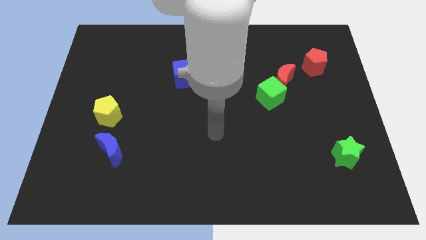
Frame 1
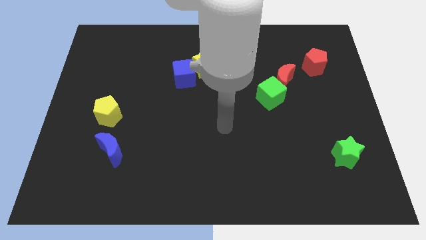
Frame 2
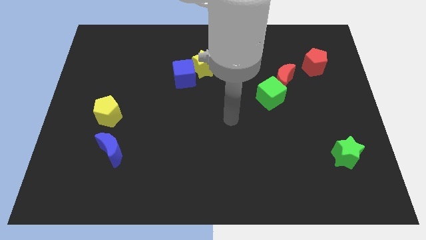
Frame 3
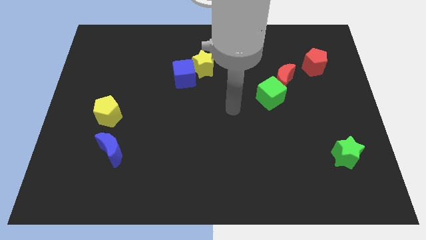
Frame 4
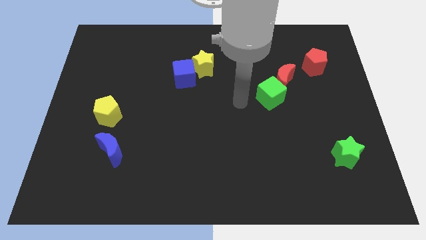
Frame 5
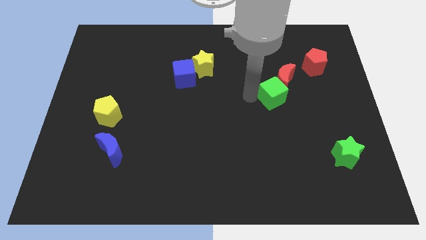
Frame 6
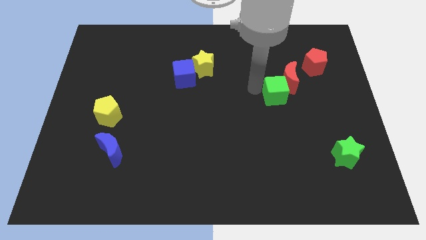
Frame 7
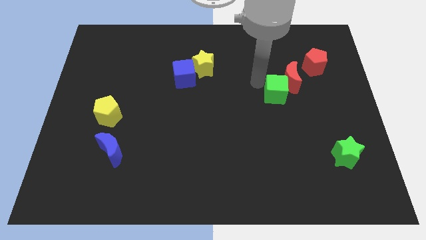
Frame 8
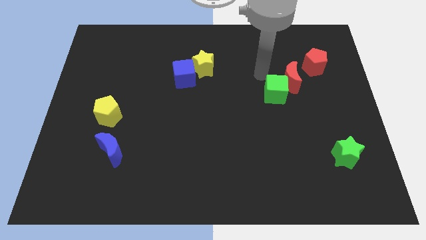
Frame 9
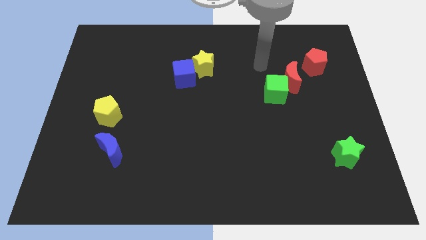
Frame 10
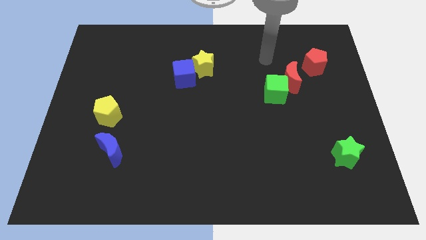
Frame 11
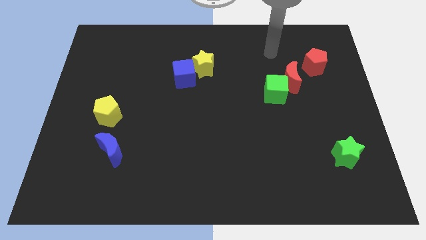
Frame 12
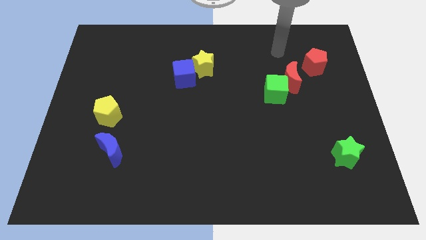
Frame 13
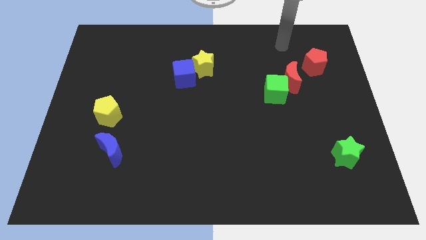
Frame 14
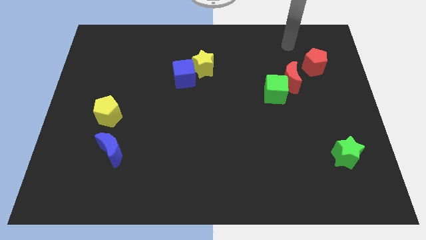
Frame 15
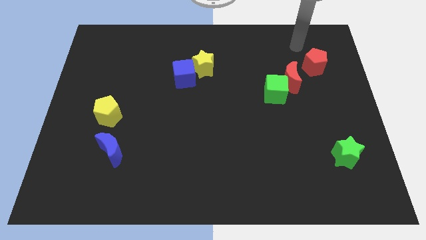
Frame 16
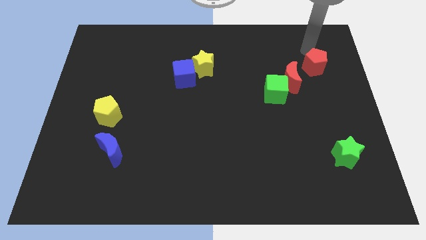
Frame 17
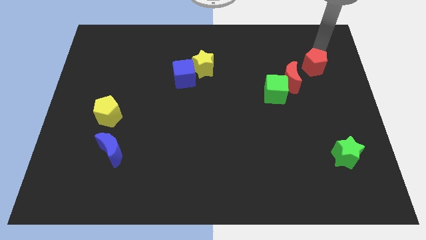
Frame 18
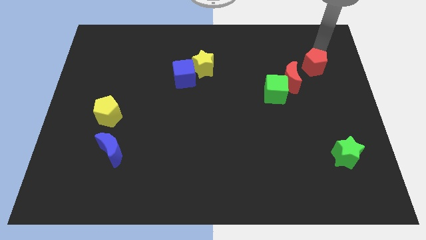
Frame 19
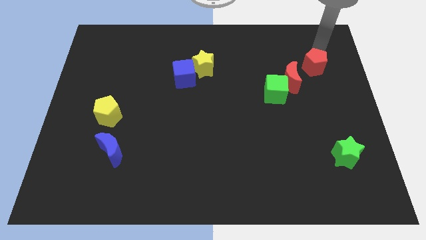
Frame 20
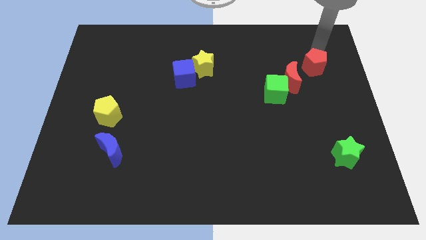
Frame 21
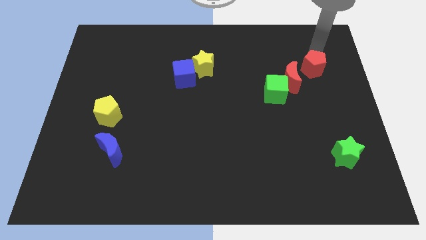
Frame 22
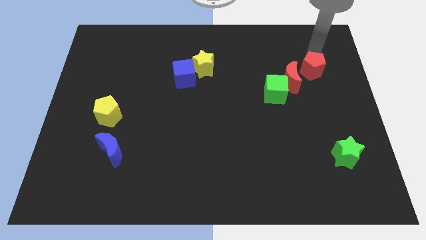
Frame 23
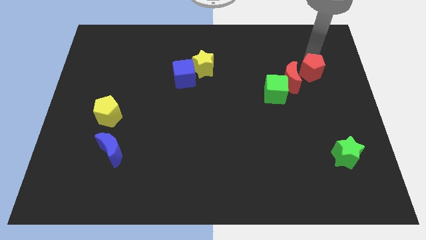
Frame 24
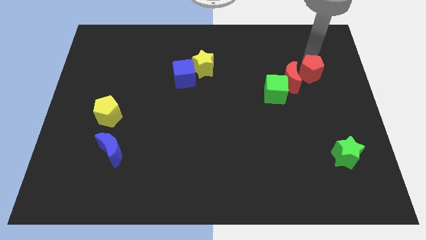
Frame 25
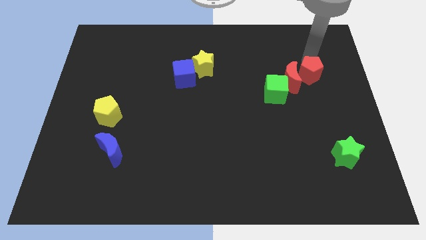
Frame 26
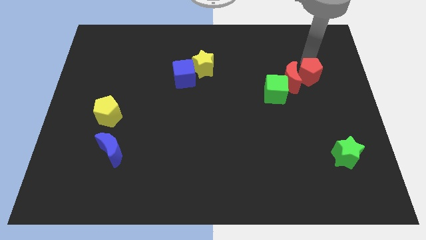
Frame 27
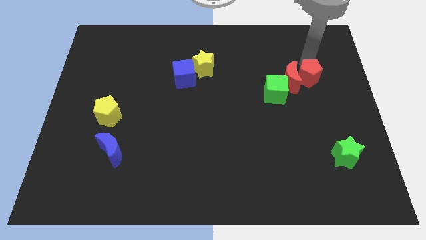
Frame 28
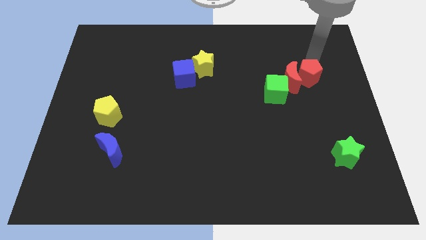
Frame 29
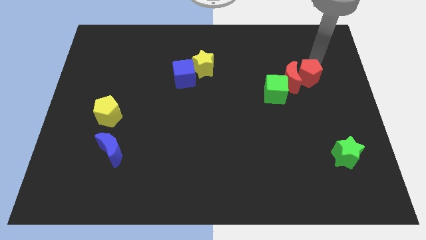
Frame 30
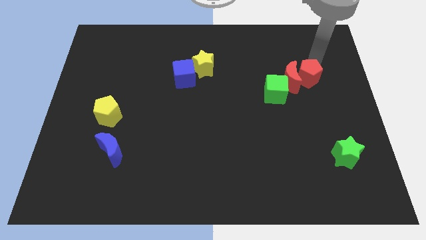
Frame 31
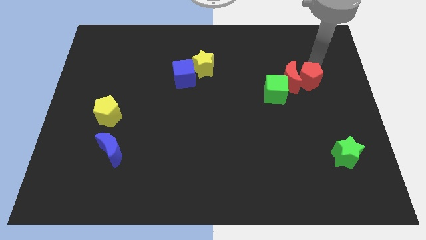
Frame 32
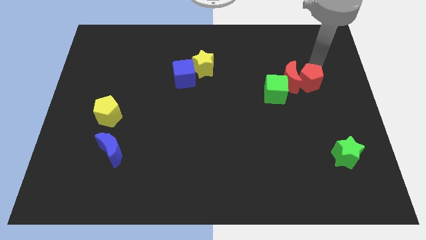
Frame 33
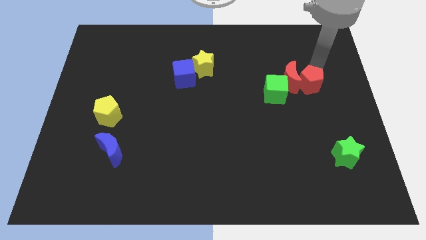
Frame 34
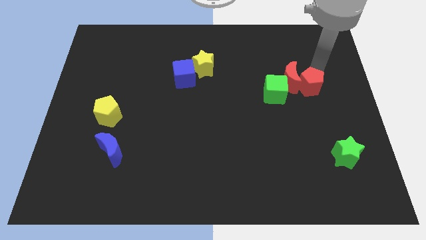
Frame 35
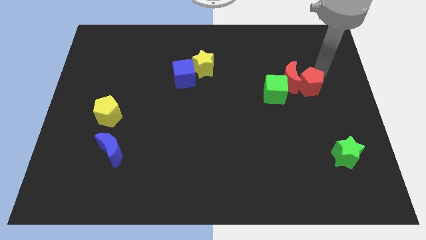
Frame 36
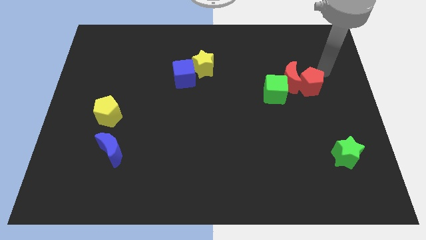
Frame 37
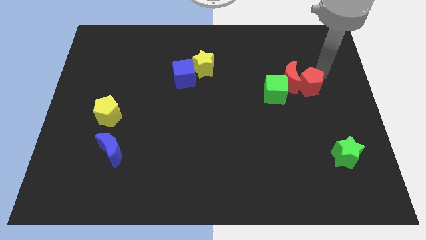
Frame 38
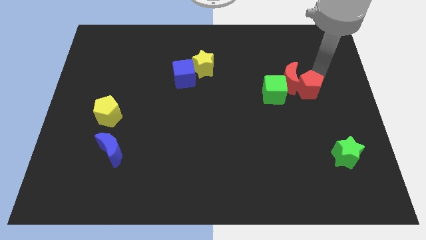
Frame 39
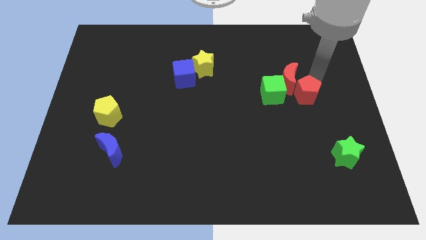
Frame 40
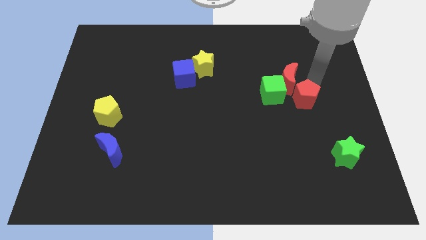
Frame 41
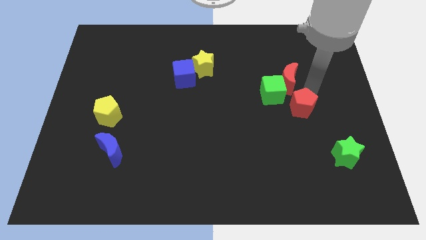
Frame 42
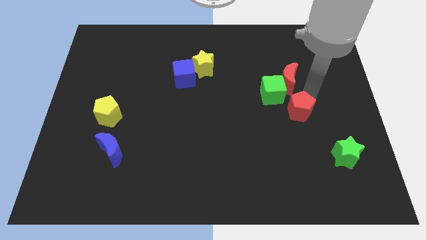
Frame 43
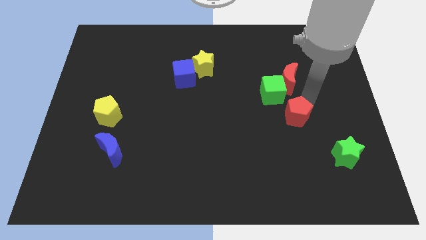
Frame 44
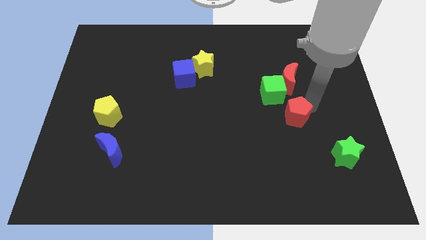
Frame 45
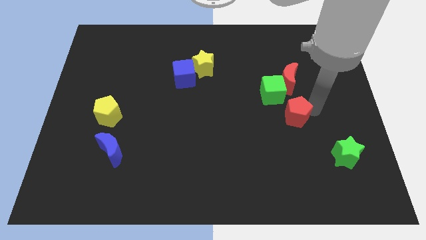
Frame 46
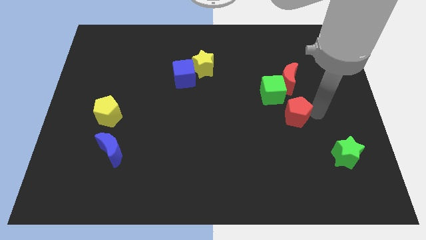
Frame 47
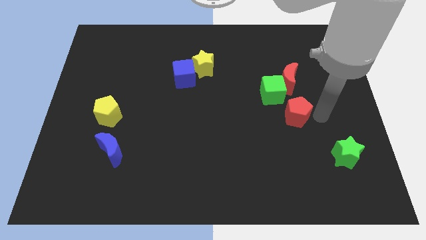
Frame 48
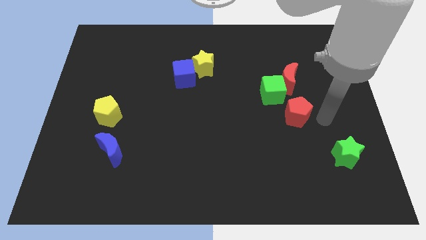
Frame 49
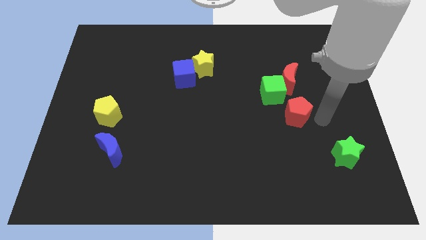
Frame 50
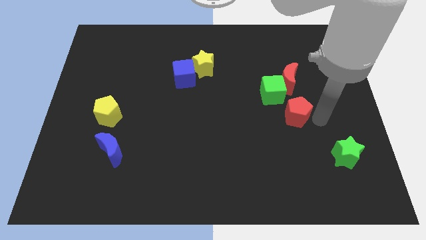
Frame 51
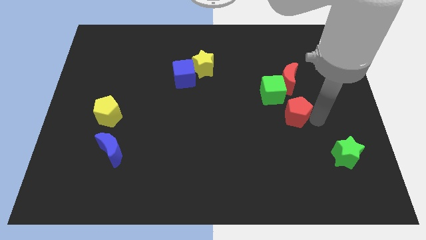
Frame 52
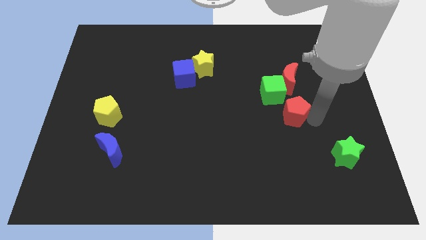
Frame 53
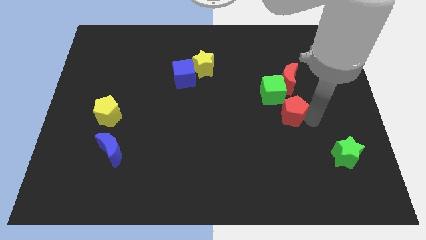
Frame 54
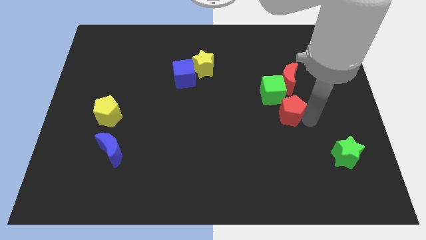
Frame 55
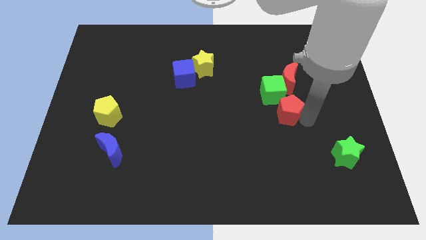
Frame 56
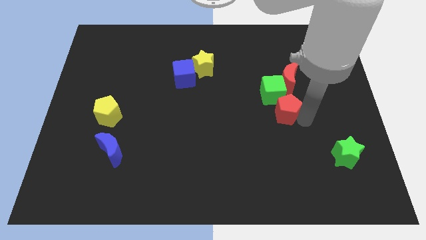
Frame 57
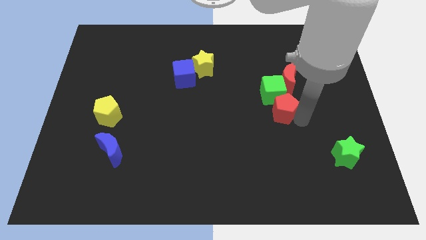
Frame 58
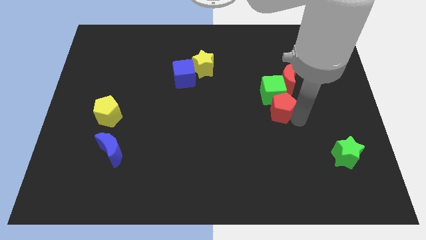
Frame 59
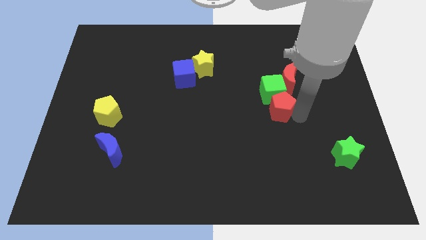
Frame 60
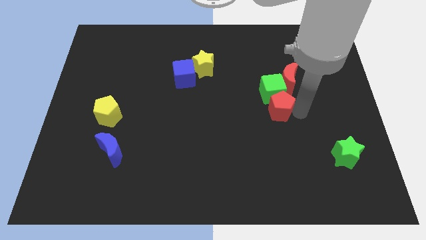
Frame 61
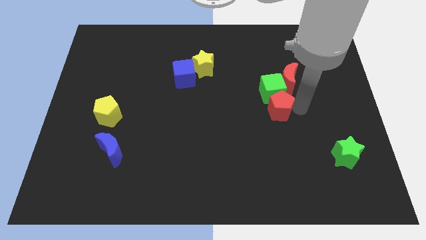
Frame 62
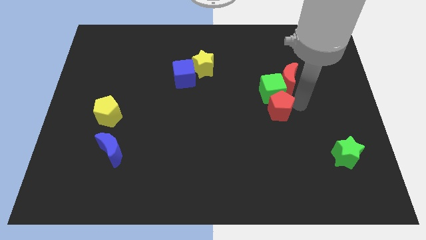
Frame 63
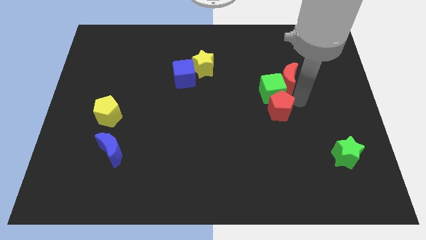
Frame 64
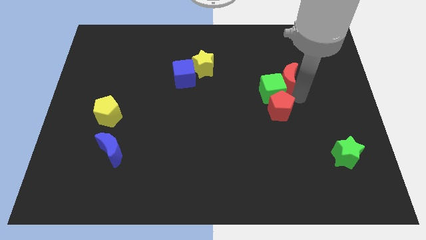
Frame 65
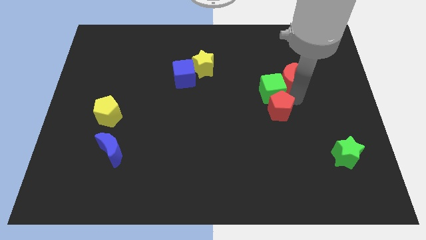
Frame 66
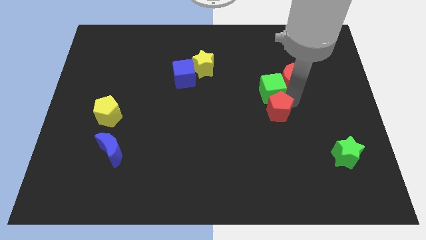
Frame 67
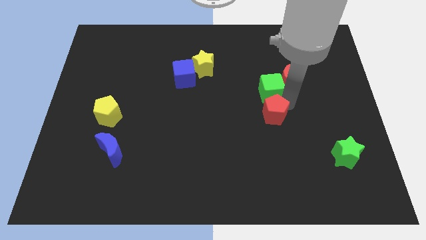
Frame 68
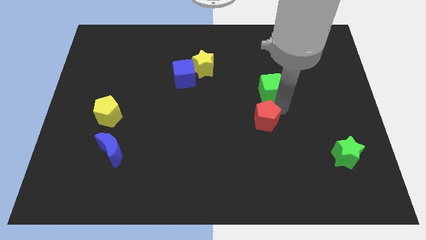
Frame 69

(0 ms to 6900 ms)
push the red pentagon downwards and then to the left

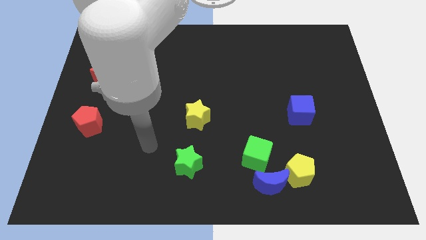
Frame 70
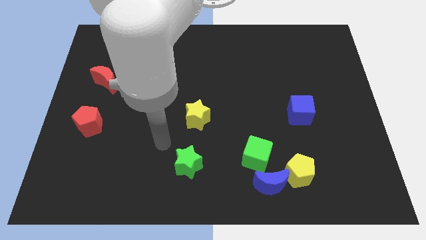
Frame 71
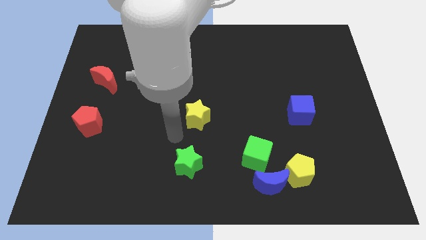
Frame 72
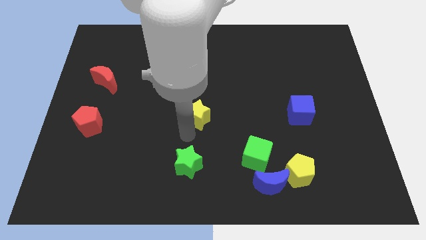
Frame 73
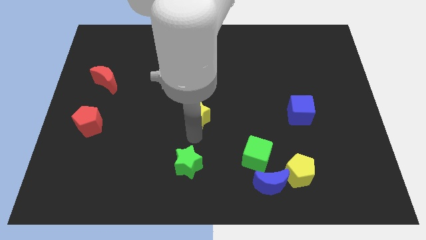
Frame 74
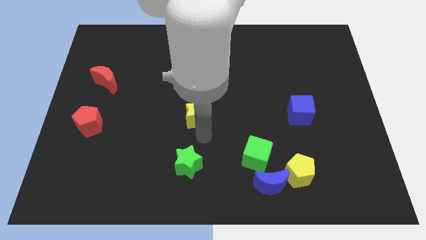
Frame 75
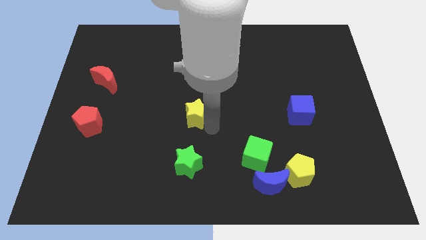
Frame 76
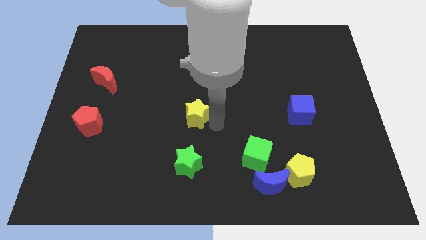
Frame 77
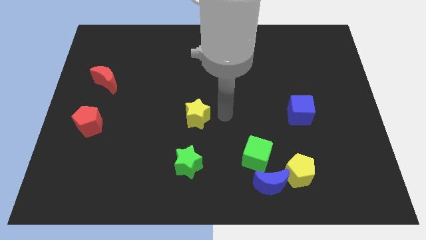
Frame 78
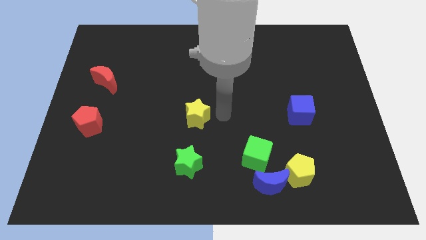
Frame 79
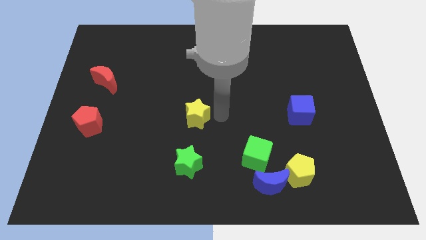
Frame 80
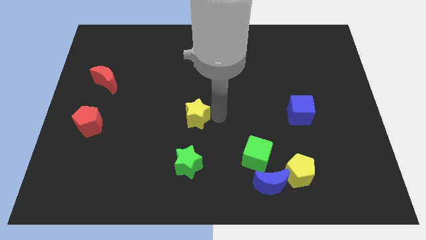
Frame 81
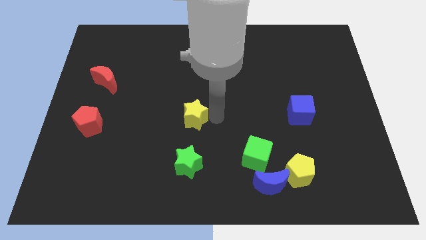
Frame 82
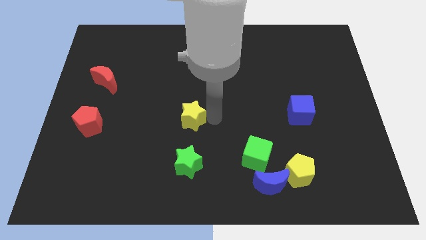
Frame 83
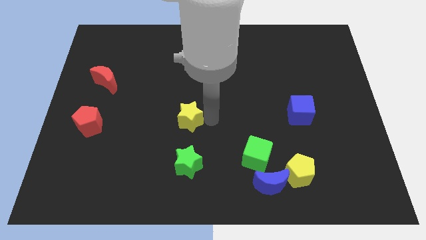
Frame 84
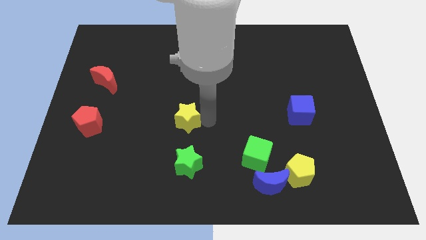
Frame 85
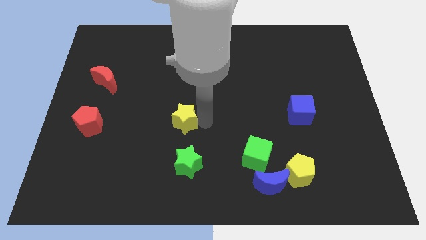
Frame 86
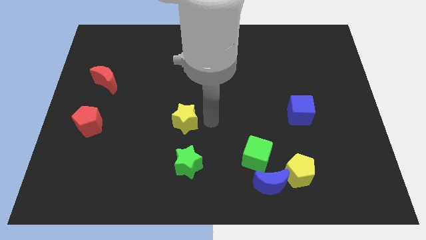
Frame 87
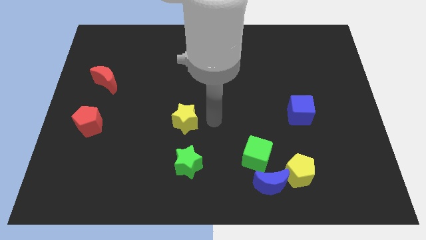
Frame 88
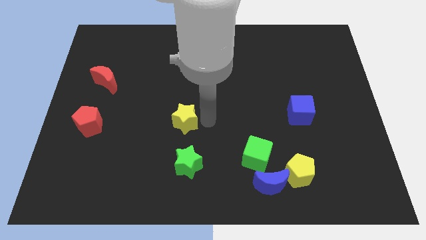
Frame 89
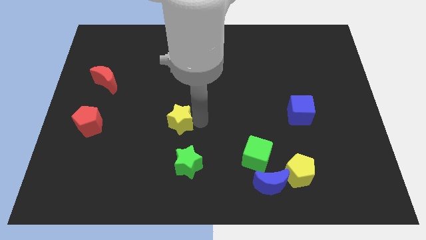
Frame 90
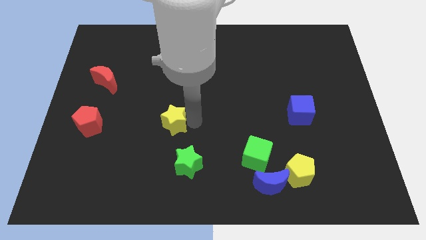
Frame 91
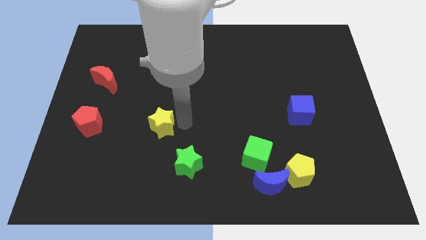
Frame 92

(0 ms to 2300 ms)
move the yellow star left somewhat
